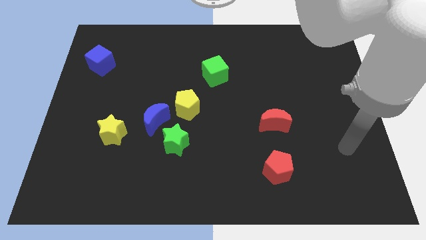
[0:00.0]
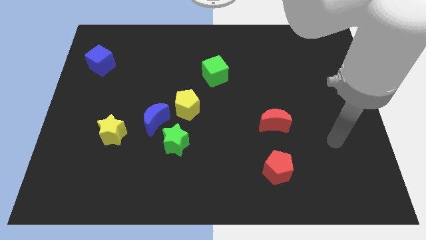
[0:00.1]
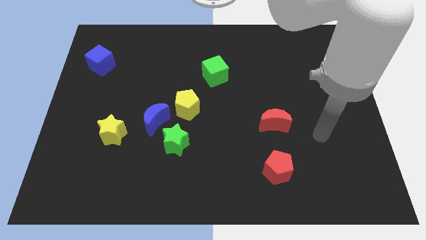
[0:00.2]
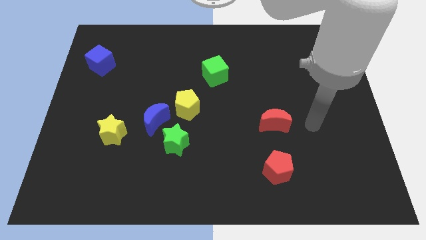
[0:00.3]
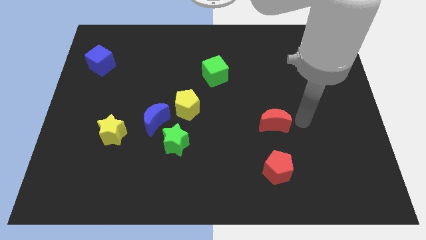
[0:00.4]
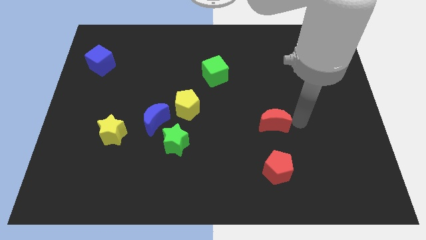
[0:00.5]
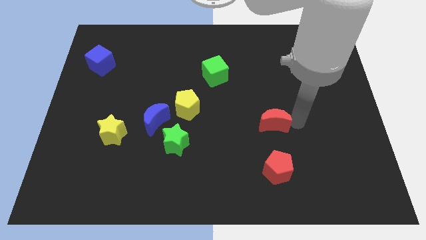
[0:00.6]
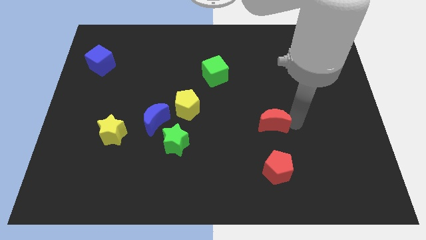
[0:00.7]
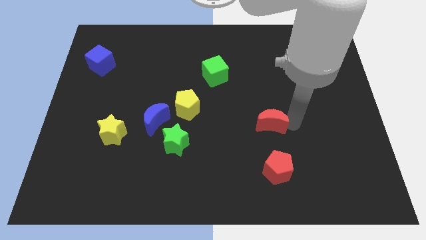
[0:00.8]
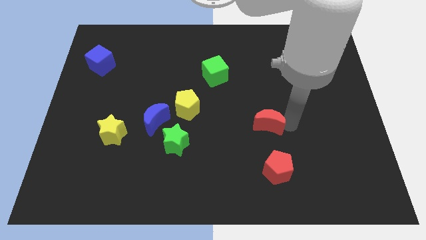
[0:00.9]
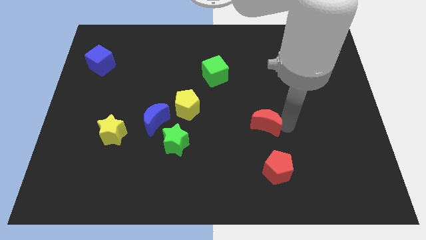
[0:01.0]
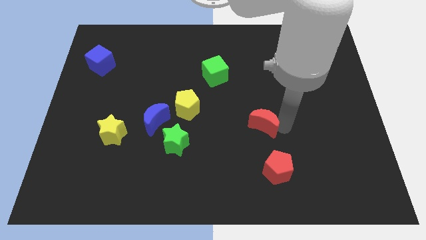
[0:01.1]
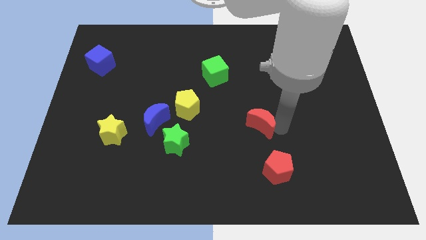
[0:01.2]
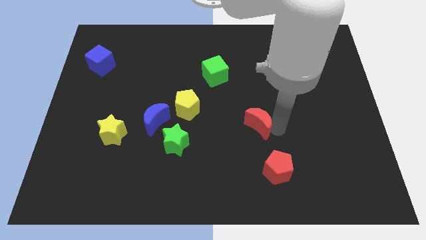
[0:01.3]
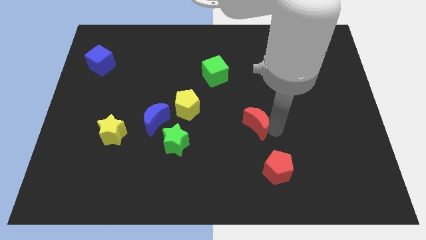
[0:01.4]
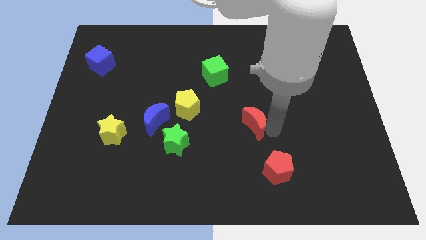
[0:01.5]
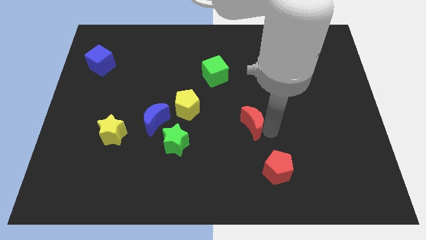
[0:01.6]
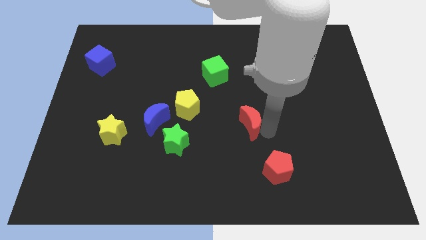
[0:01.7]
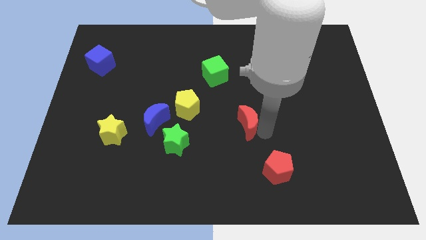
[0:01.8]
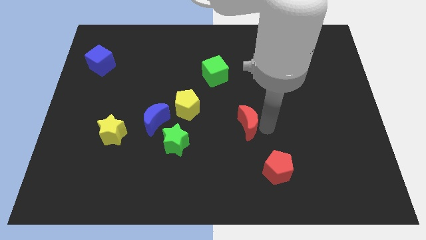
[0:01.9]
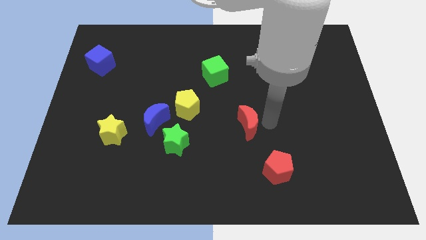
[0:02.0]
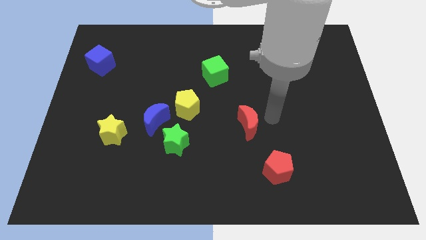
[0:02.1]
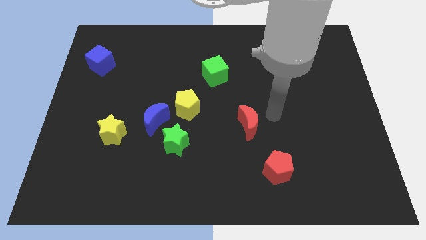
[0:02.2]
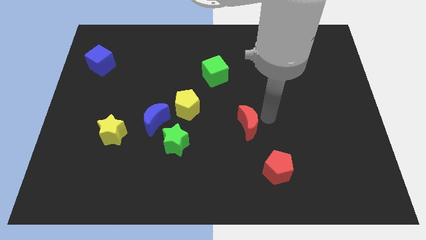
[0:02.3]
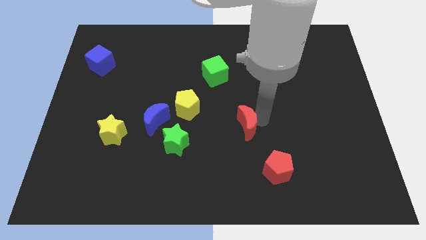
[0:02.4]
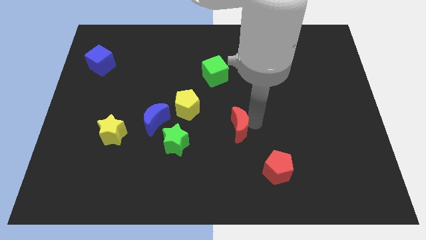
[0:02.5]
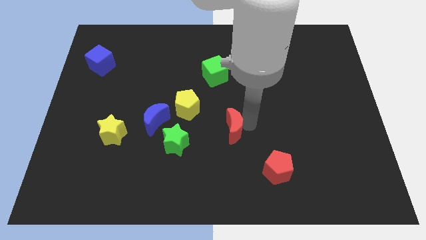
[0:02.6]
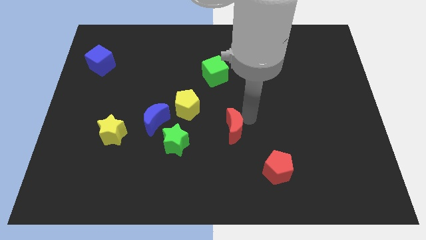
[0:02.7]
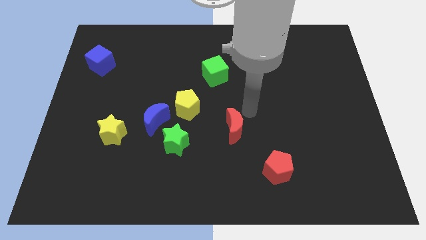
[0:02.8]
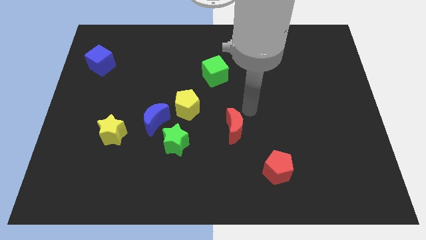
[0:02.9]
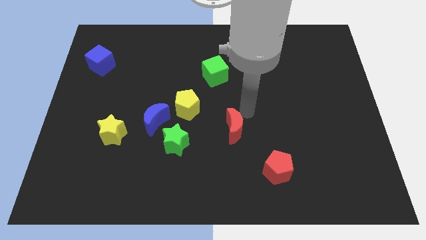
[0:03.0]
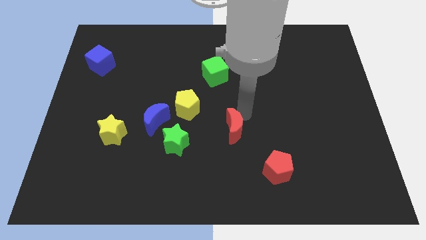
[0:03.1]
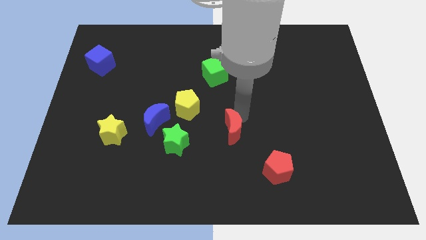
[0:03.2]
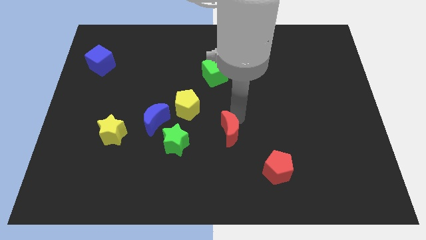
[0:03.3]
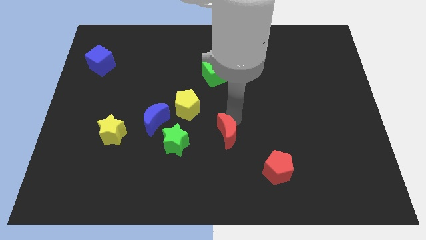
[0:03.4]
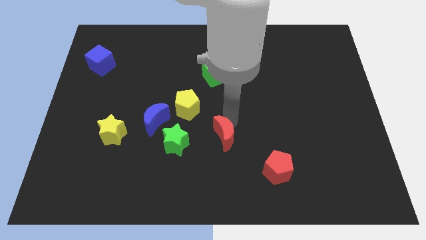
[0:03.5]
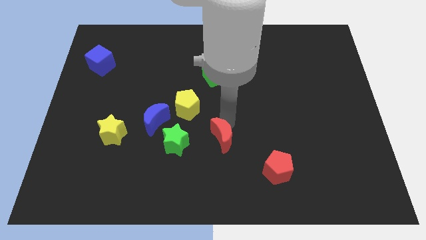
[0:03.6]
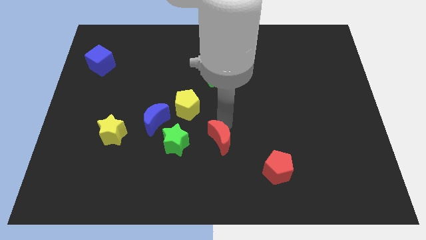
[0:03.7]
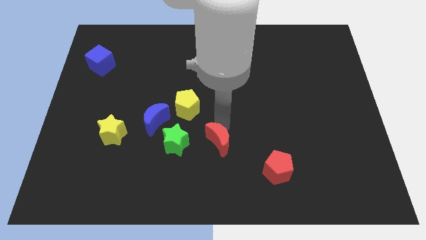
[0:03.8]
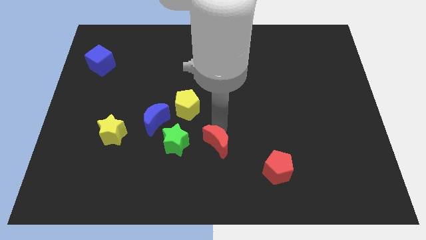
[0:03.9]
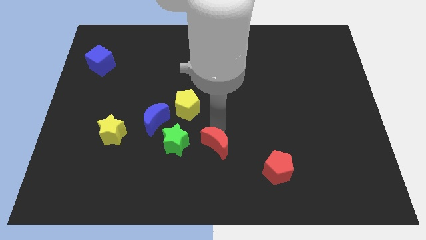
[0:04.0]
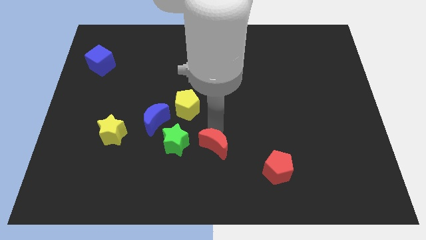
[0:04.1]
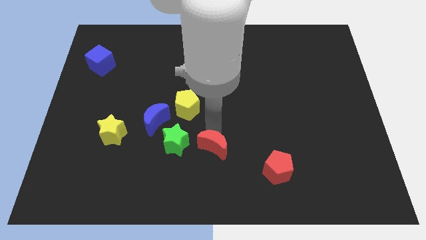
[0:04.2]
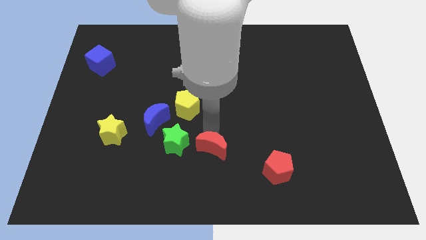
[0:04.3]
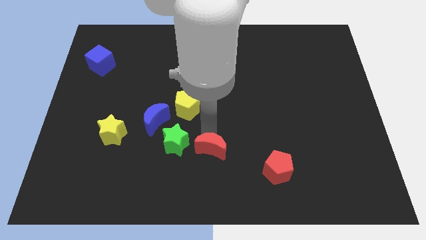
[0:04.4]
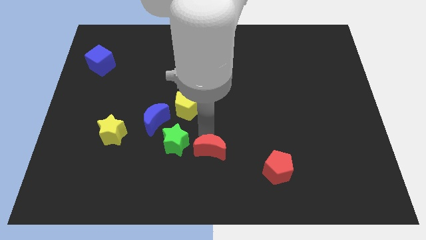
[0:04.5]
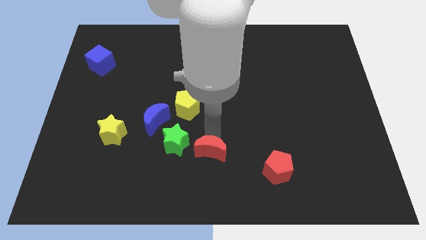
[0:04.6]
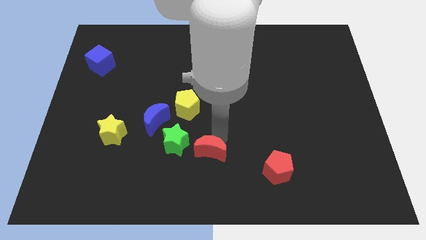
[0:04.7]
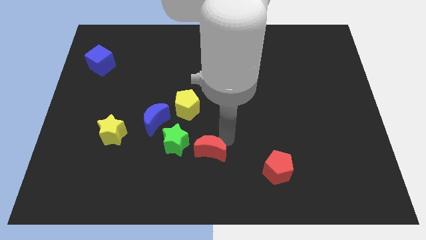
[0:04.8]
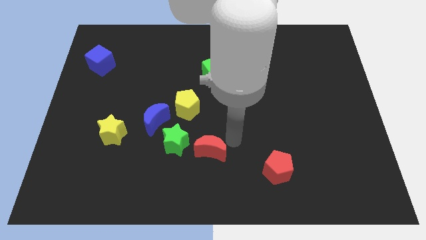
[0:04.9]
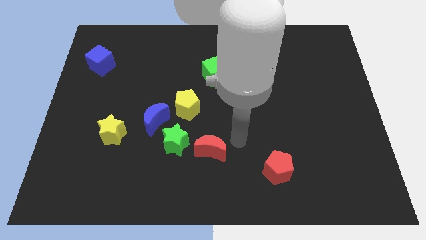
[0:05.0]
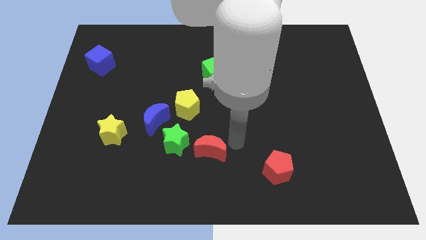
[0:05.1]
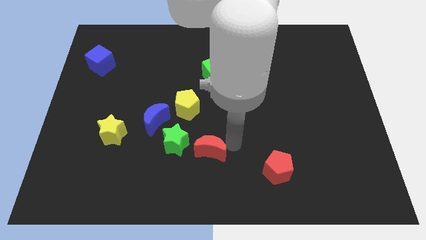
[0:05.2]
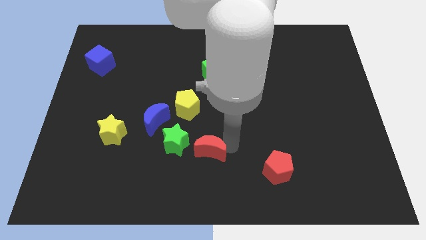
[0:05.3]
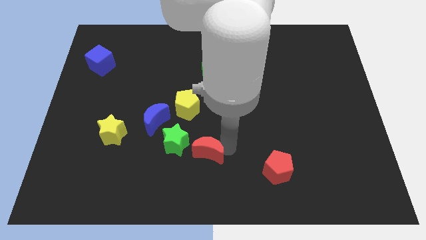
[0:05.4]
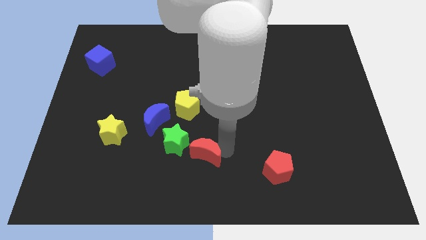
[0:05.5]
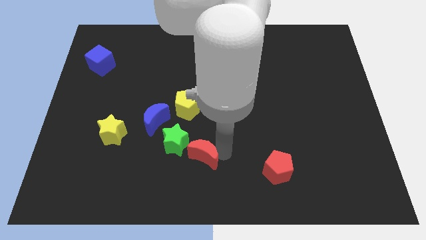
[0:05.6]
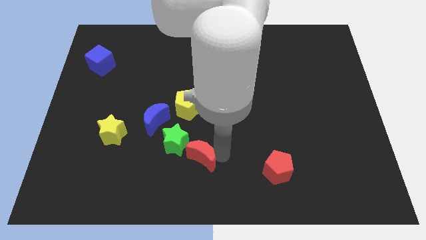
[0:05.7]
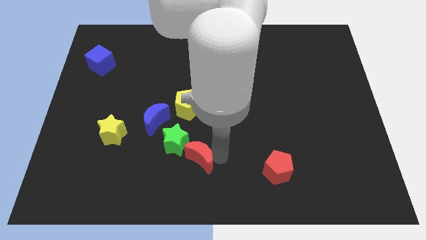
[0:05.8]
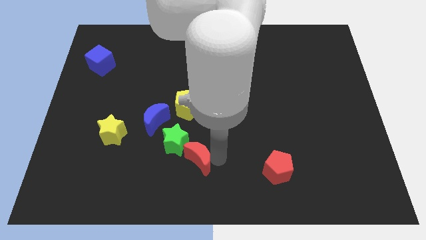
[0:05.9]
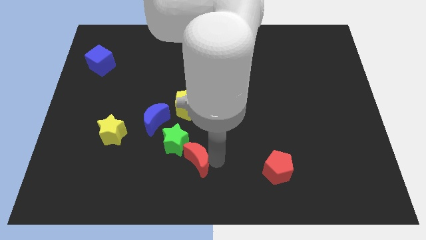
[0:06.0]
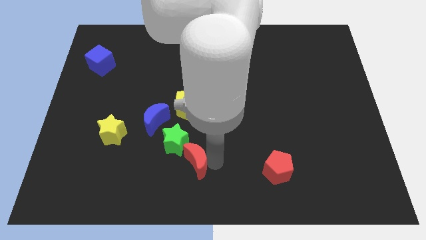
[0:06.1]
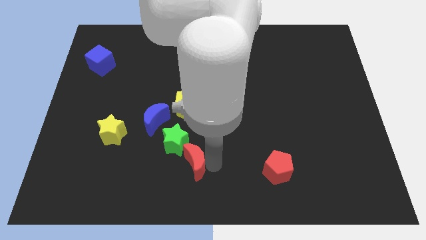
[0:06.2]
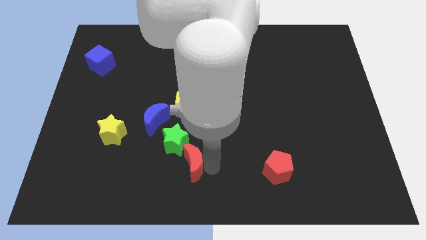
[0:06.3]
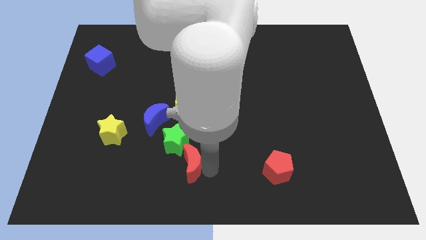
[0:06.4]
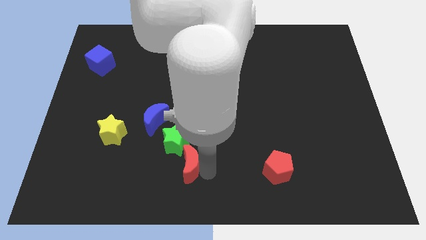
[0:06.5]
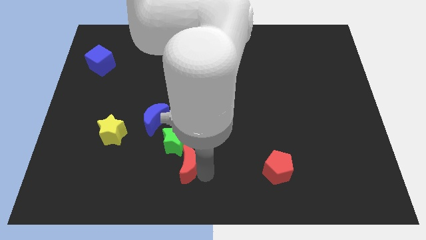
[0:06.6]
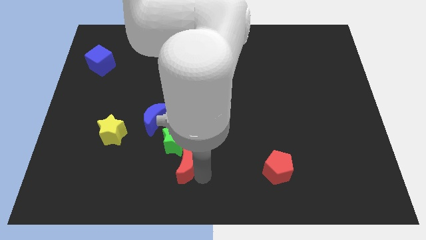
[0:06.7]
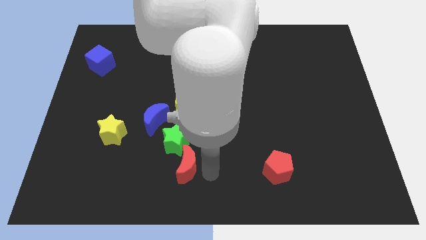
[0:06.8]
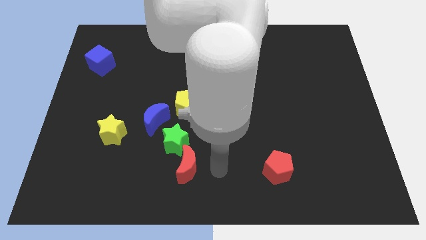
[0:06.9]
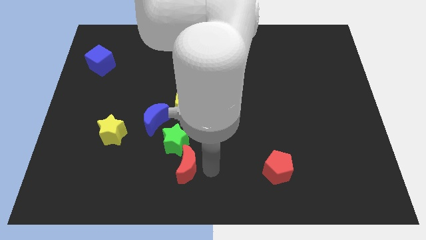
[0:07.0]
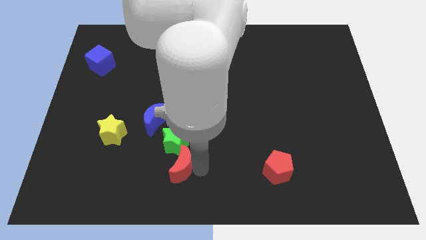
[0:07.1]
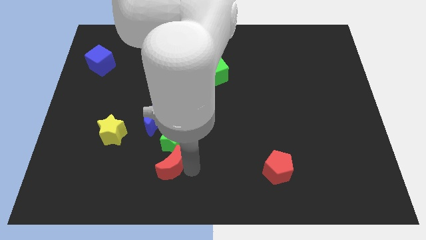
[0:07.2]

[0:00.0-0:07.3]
push the red moon to the bottom left of the green star
